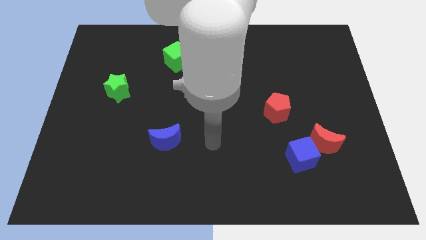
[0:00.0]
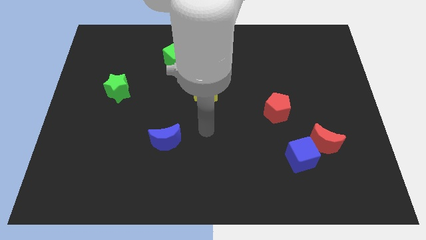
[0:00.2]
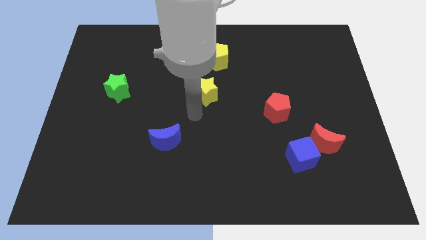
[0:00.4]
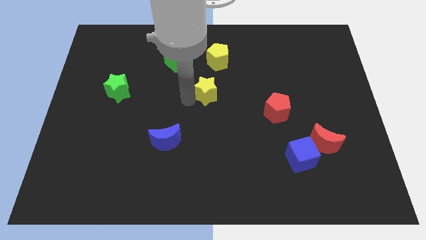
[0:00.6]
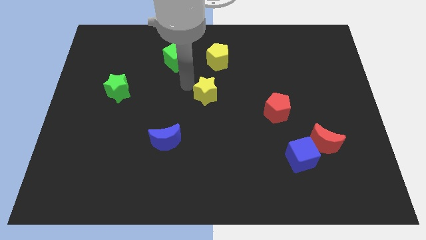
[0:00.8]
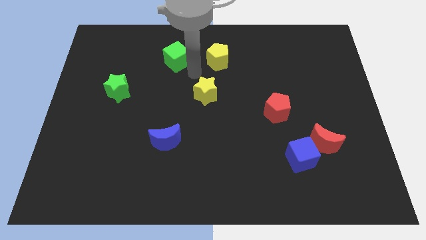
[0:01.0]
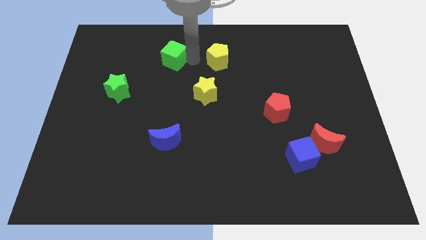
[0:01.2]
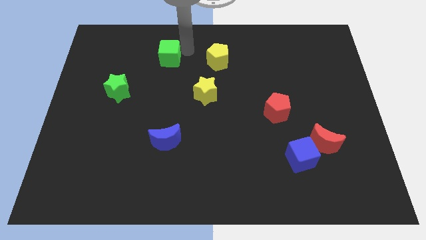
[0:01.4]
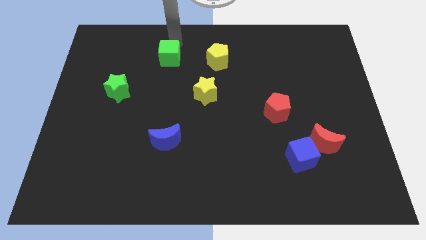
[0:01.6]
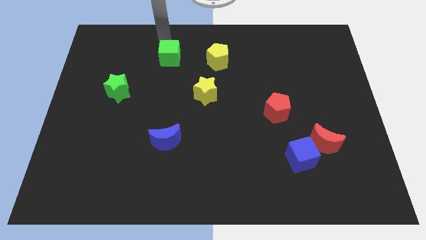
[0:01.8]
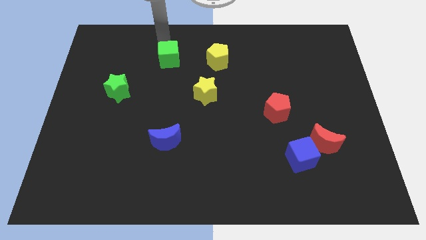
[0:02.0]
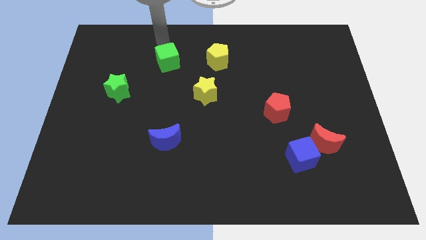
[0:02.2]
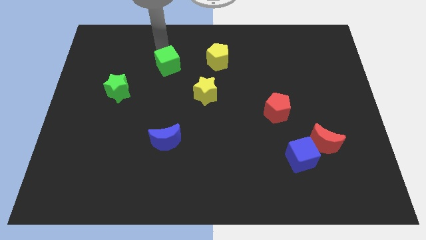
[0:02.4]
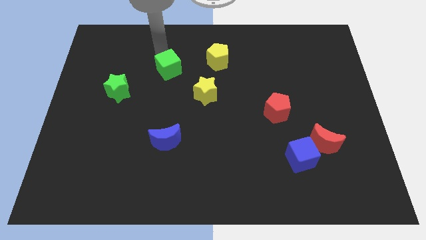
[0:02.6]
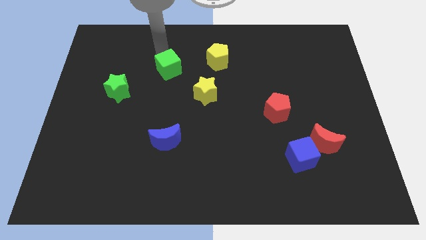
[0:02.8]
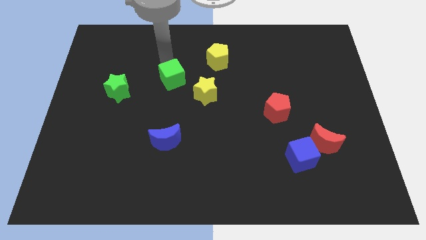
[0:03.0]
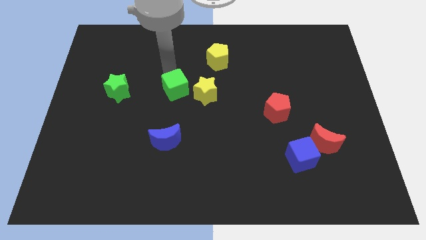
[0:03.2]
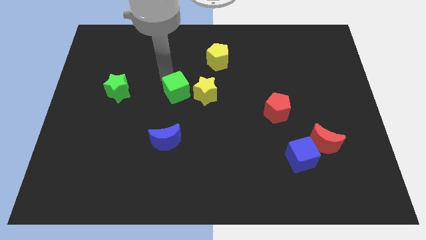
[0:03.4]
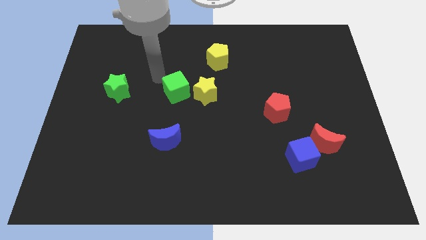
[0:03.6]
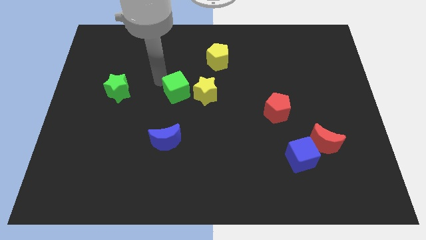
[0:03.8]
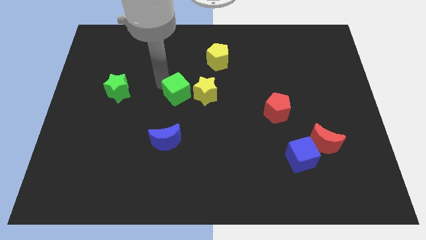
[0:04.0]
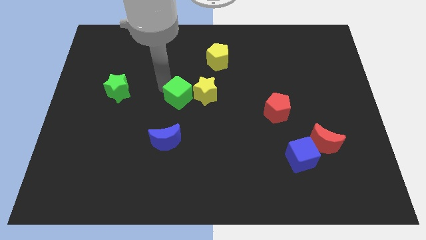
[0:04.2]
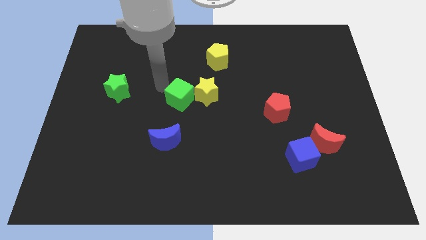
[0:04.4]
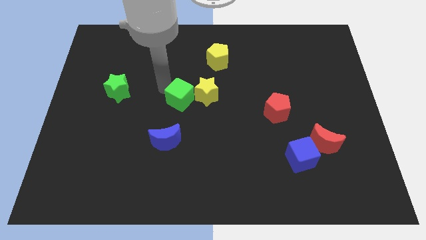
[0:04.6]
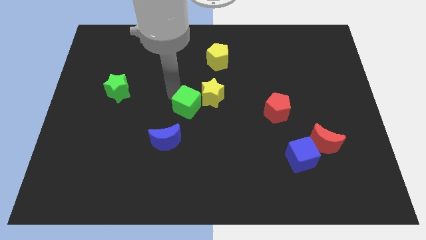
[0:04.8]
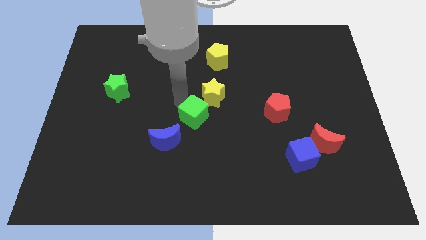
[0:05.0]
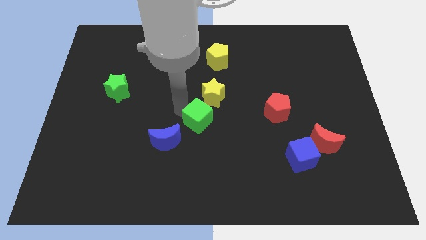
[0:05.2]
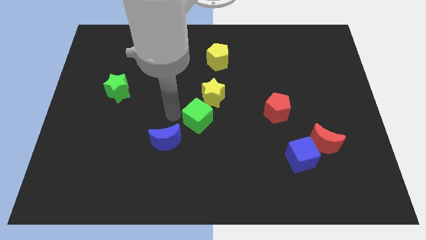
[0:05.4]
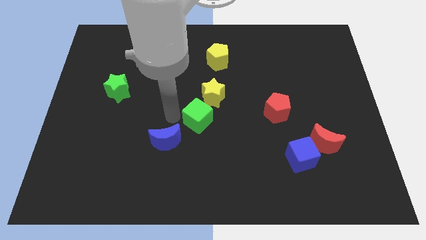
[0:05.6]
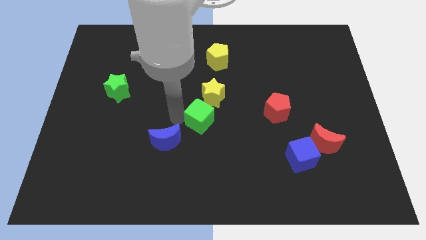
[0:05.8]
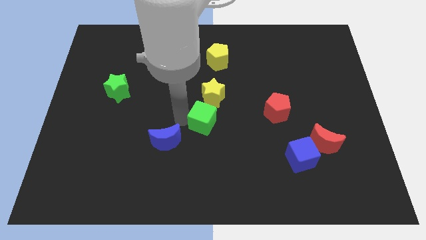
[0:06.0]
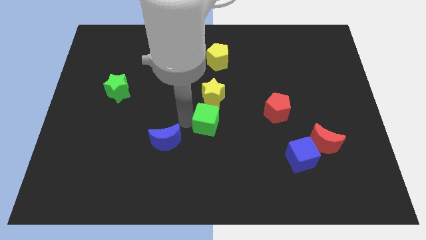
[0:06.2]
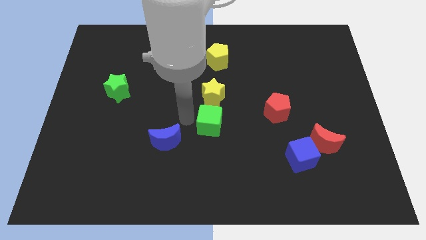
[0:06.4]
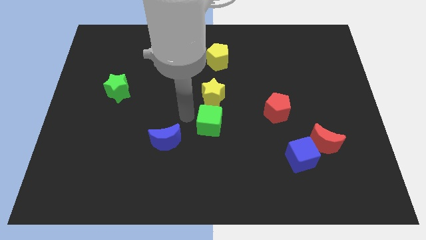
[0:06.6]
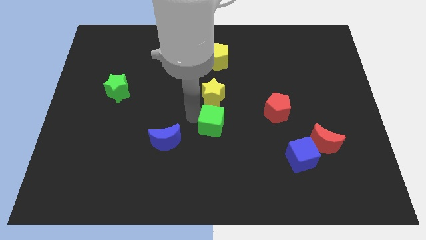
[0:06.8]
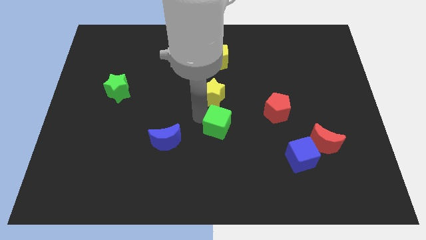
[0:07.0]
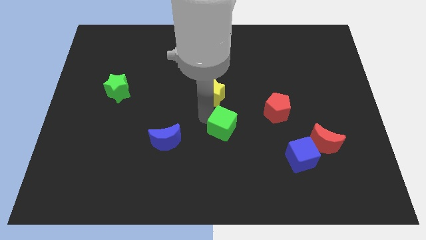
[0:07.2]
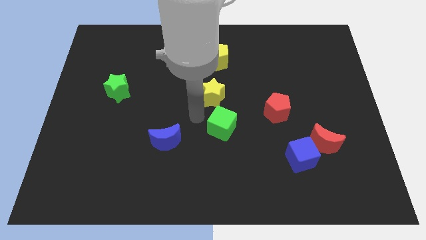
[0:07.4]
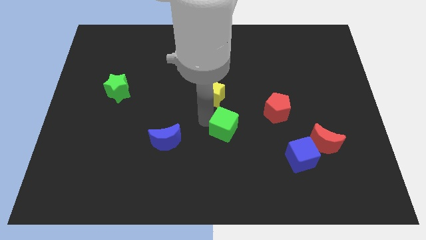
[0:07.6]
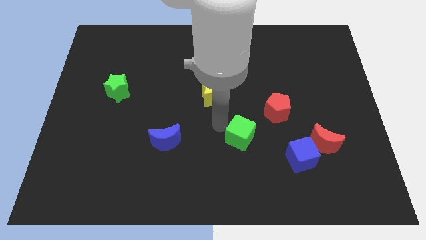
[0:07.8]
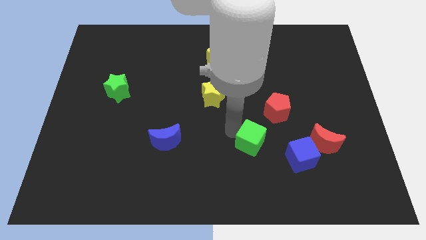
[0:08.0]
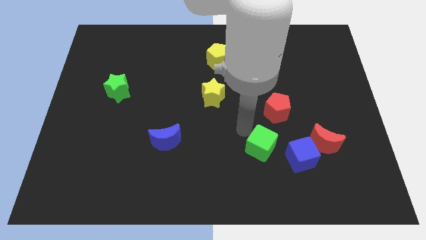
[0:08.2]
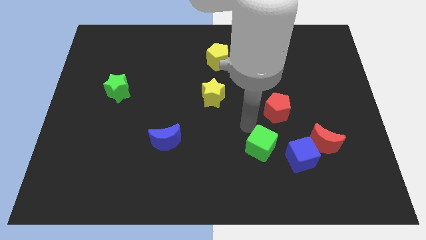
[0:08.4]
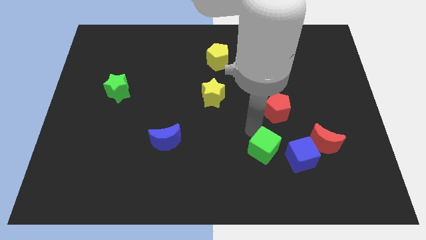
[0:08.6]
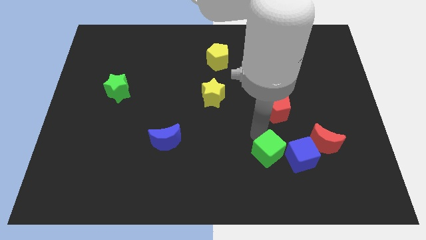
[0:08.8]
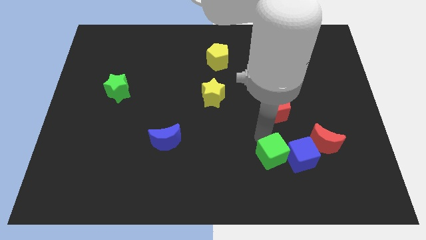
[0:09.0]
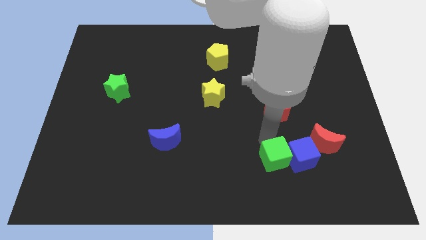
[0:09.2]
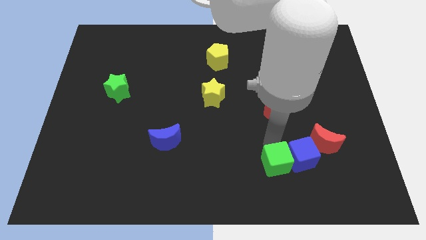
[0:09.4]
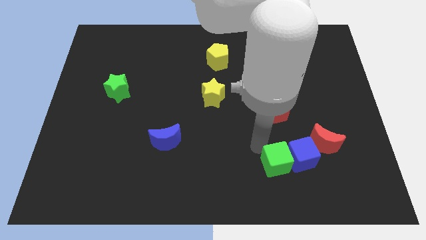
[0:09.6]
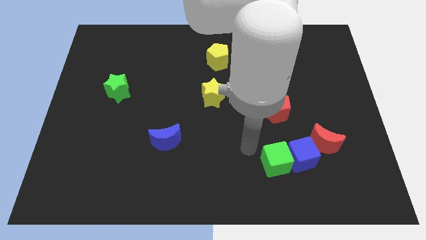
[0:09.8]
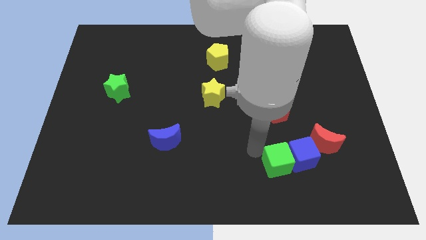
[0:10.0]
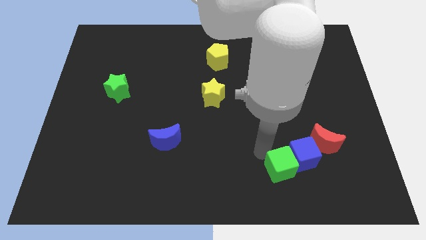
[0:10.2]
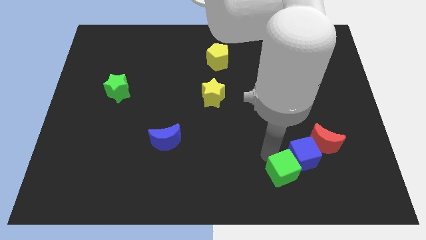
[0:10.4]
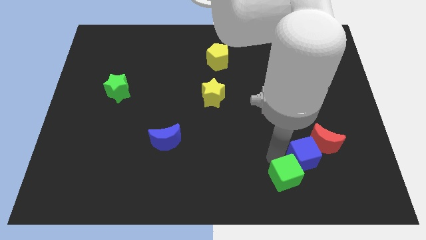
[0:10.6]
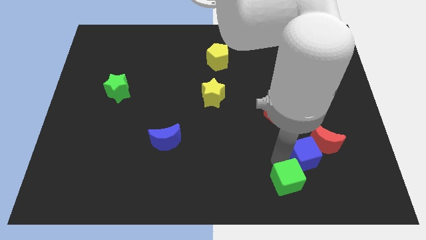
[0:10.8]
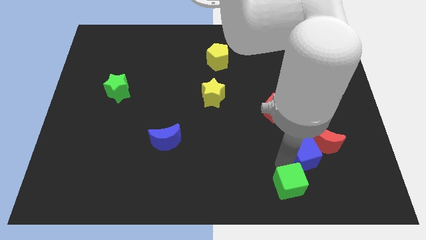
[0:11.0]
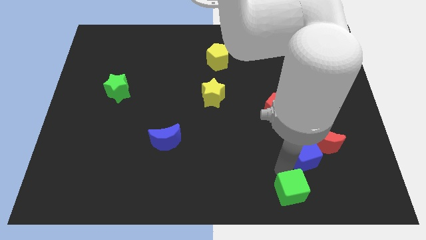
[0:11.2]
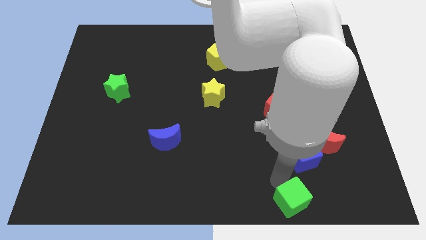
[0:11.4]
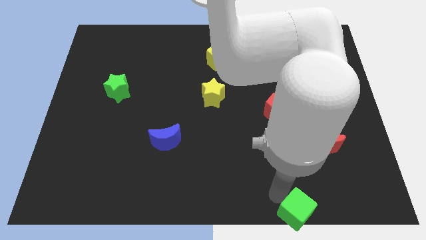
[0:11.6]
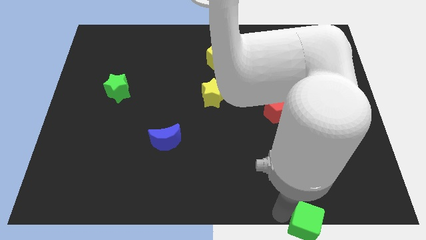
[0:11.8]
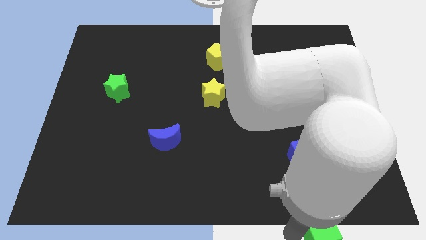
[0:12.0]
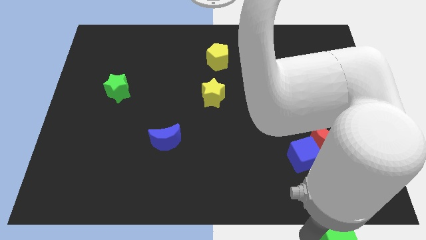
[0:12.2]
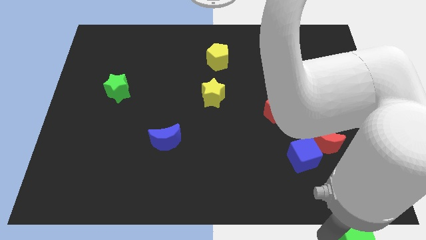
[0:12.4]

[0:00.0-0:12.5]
put the green cube to the bottom right corner
